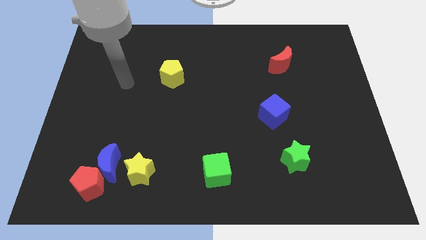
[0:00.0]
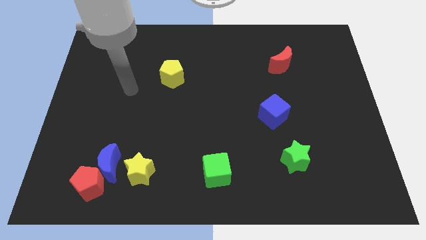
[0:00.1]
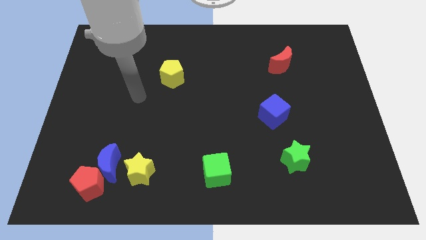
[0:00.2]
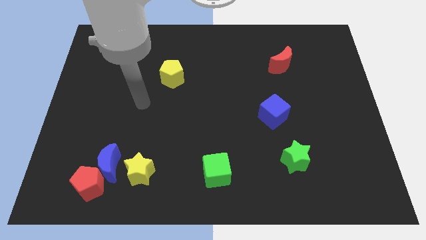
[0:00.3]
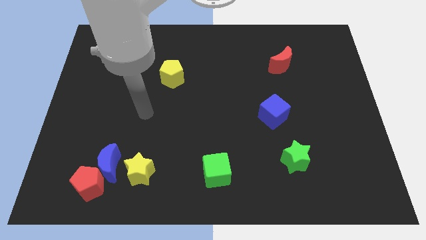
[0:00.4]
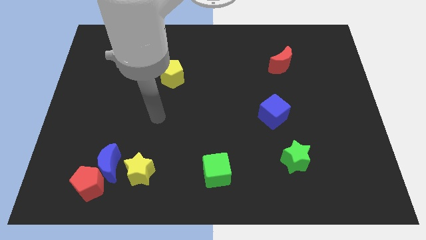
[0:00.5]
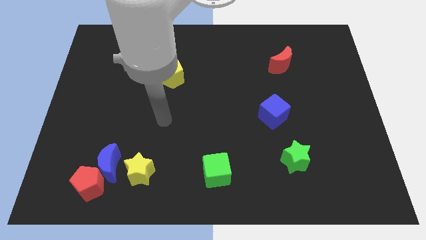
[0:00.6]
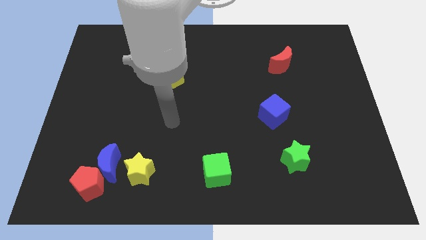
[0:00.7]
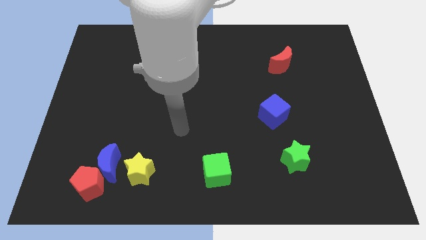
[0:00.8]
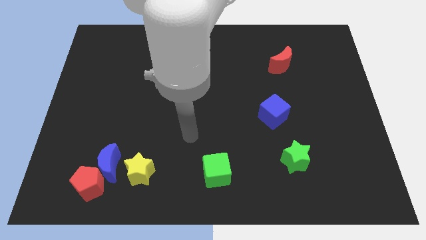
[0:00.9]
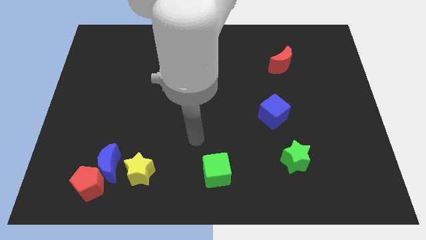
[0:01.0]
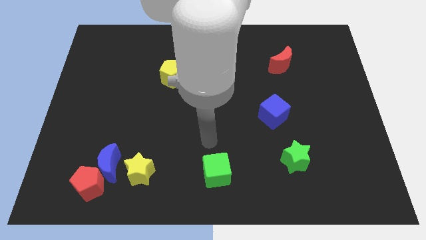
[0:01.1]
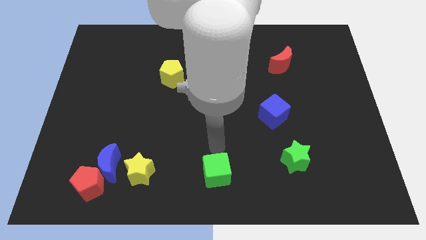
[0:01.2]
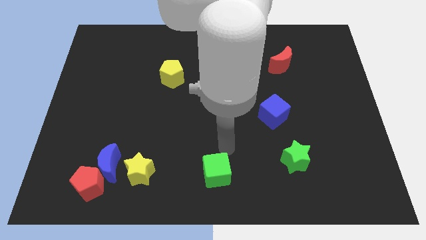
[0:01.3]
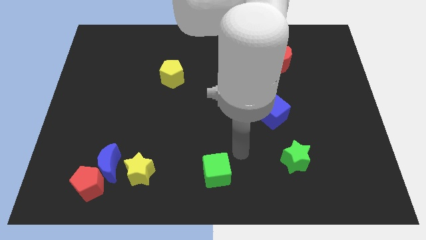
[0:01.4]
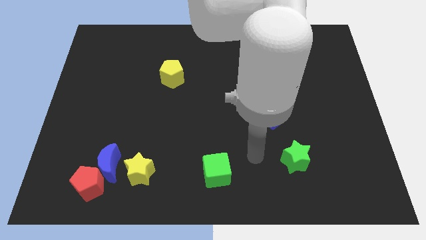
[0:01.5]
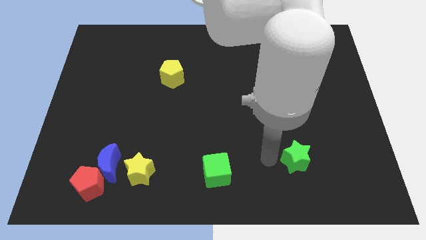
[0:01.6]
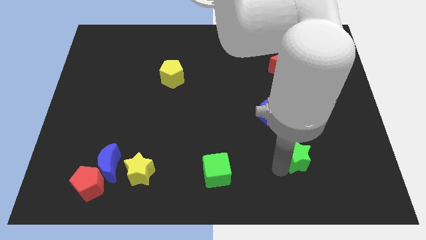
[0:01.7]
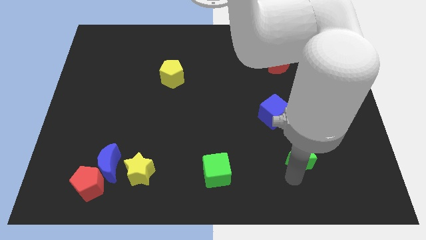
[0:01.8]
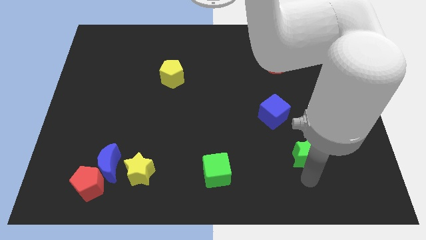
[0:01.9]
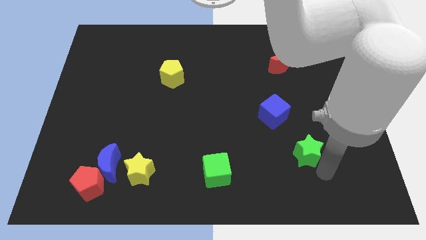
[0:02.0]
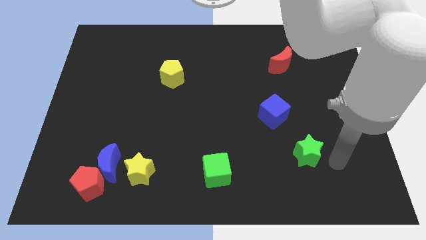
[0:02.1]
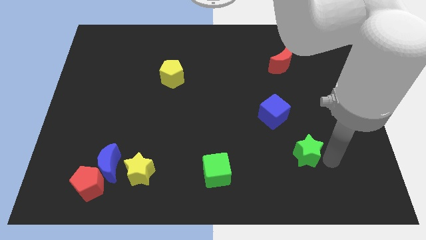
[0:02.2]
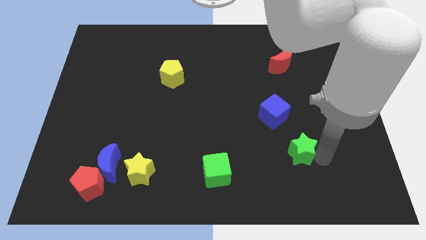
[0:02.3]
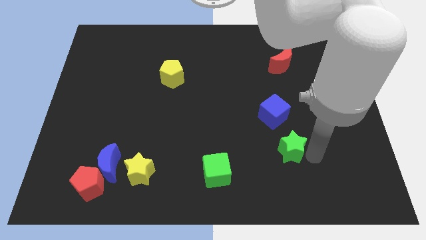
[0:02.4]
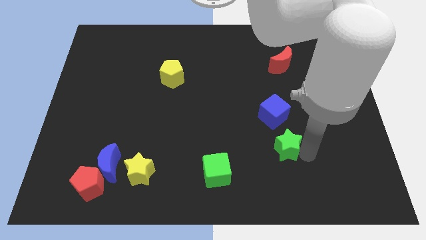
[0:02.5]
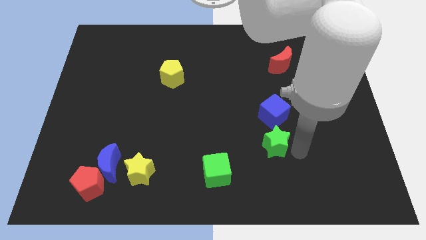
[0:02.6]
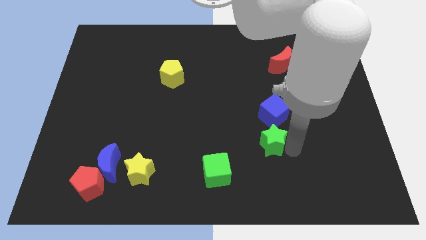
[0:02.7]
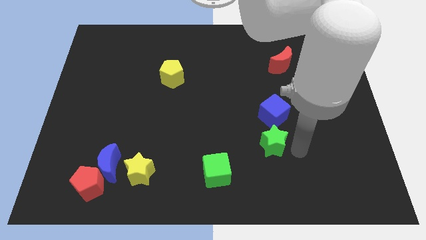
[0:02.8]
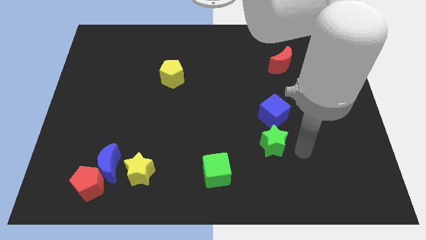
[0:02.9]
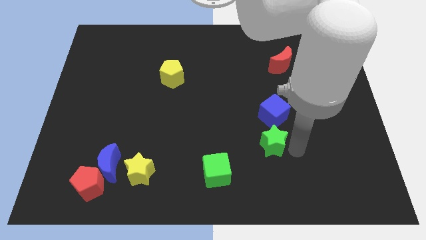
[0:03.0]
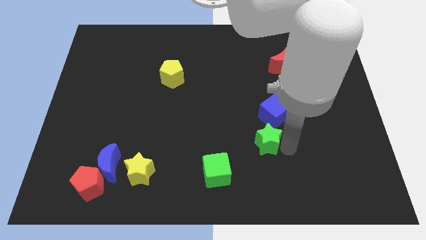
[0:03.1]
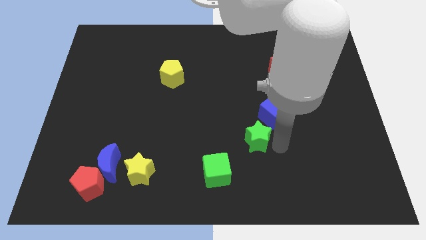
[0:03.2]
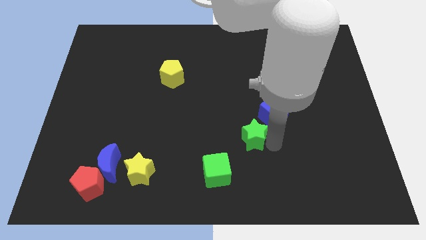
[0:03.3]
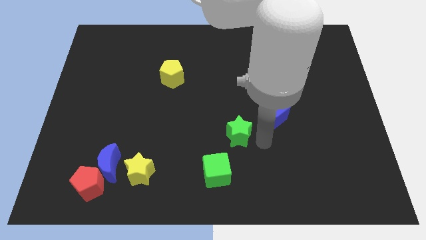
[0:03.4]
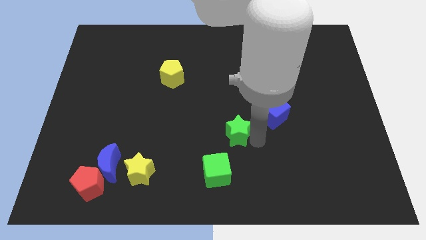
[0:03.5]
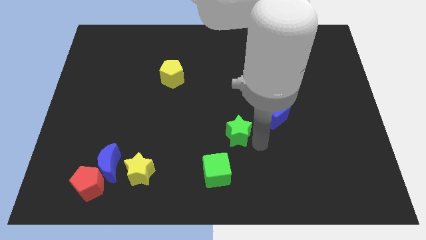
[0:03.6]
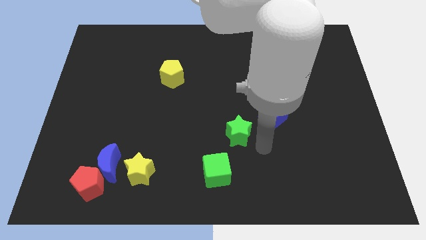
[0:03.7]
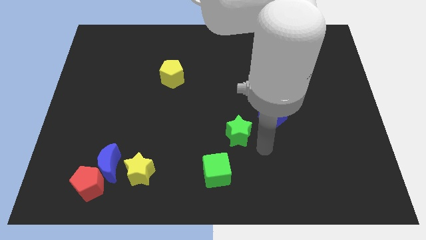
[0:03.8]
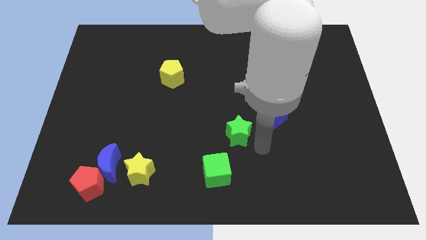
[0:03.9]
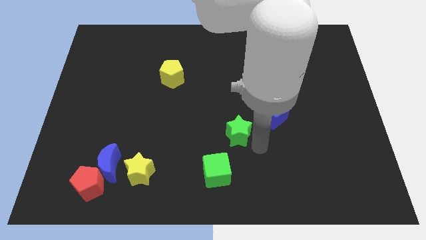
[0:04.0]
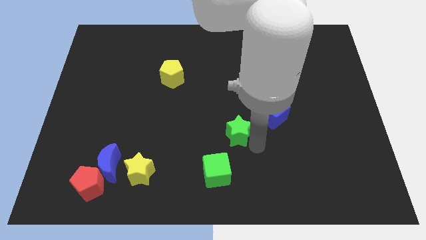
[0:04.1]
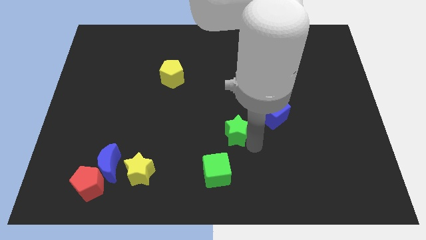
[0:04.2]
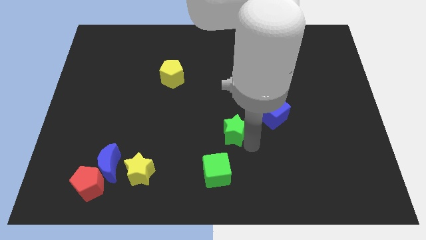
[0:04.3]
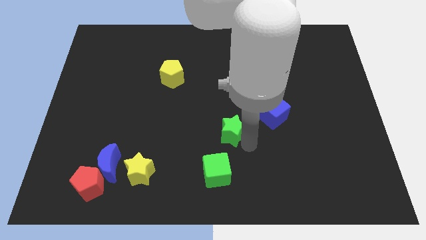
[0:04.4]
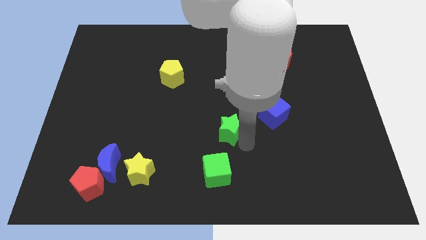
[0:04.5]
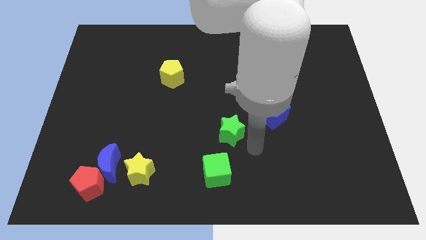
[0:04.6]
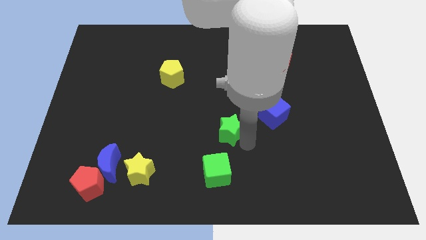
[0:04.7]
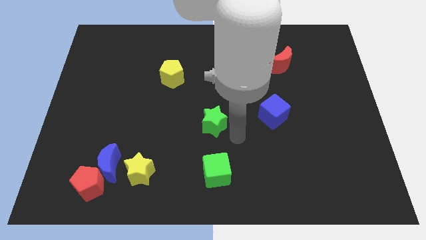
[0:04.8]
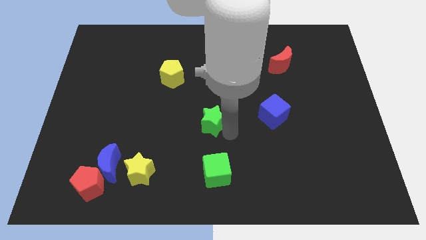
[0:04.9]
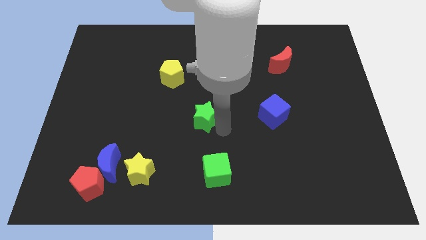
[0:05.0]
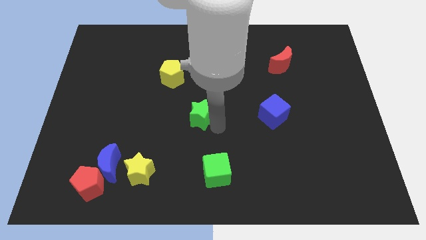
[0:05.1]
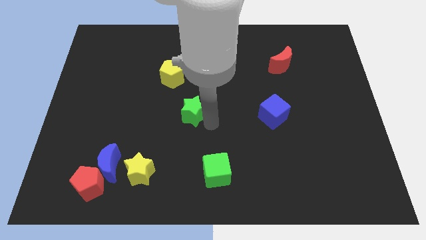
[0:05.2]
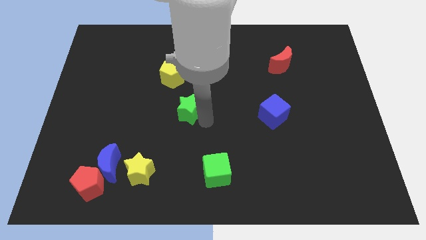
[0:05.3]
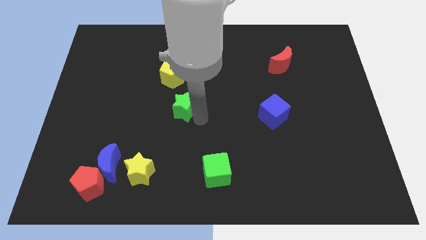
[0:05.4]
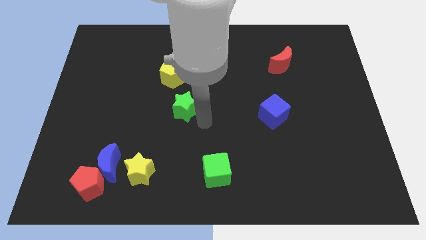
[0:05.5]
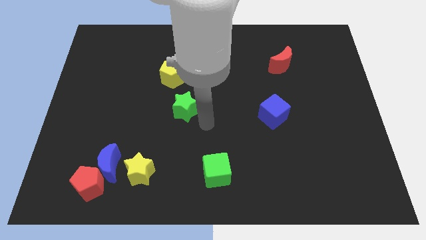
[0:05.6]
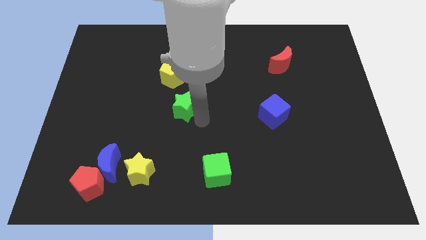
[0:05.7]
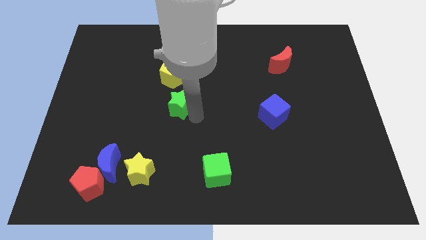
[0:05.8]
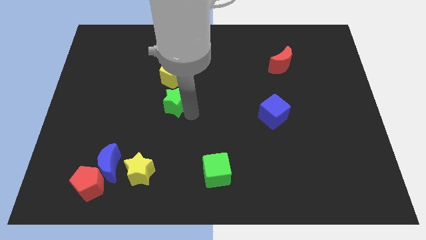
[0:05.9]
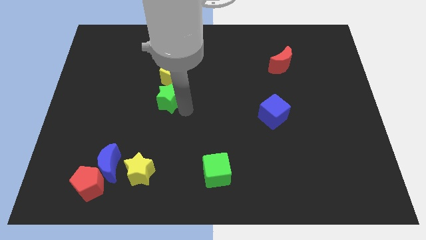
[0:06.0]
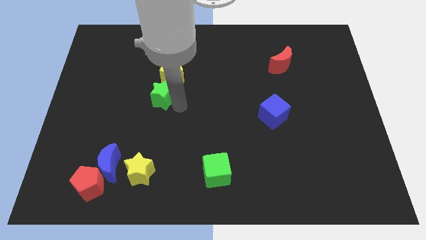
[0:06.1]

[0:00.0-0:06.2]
move the green star diagonally down and to the left of the yellow pentagon

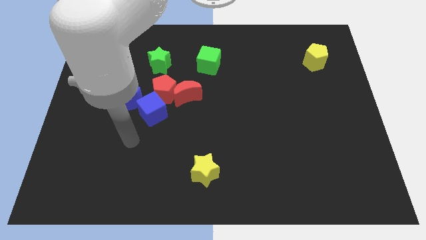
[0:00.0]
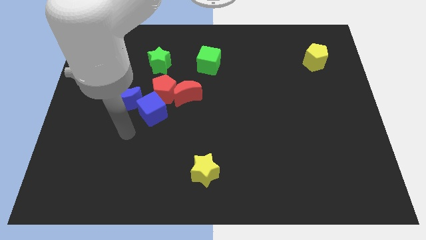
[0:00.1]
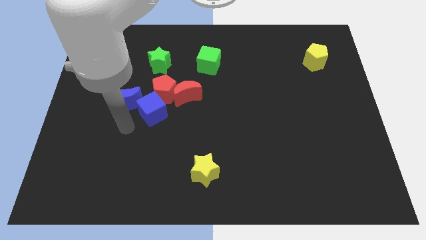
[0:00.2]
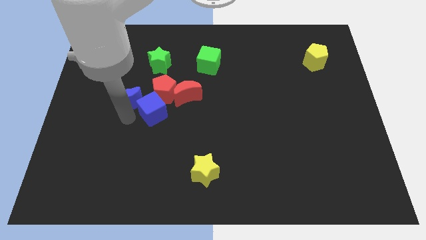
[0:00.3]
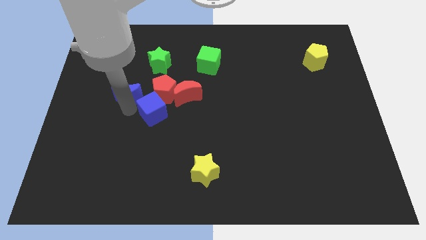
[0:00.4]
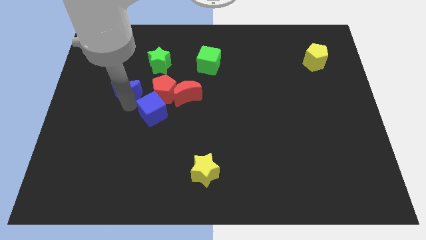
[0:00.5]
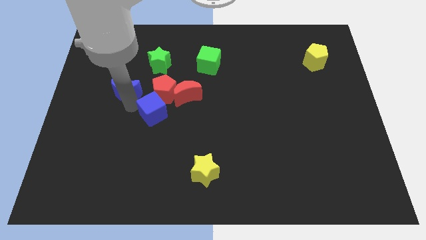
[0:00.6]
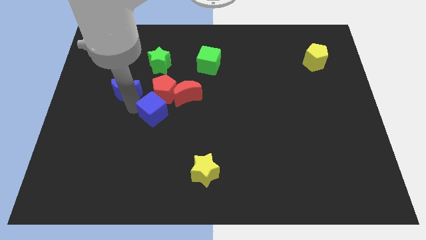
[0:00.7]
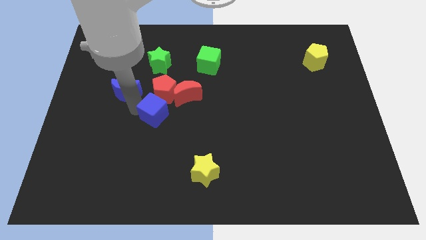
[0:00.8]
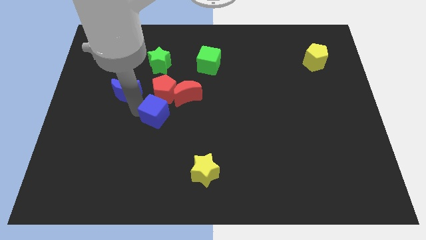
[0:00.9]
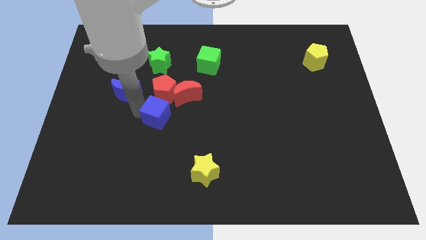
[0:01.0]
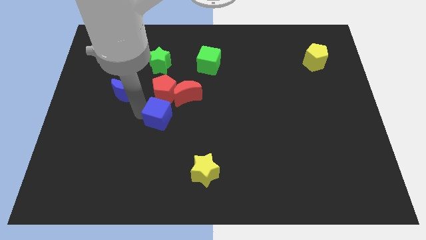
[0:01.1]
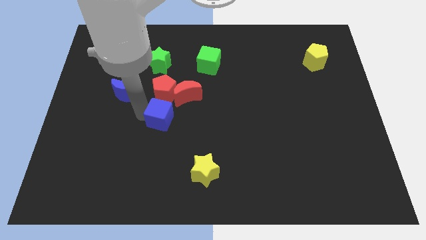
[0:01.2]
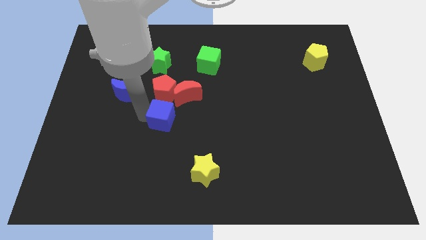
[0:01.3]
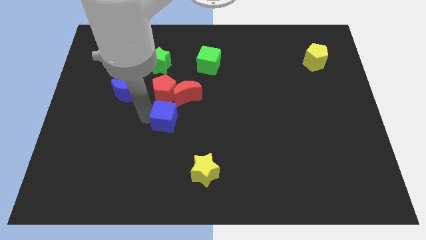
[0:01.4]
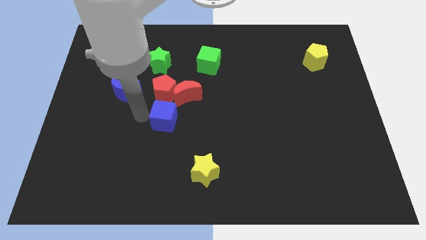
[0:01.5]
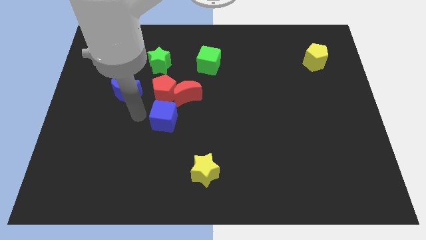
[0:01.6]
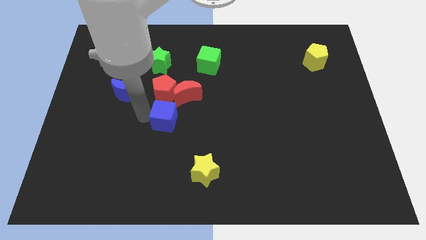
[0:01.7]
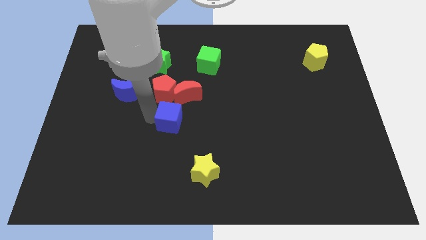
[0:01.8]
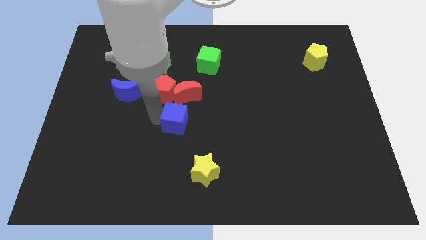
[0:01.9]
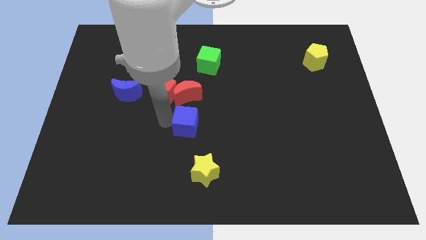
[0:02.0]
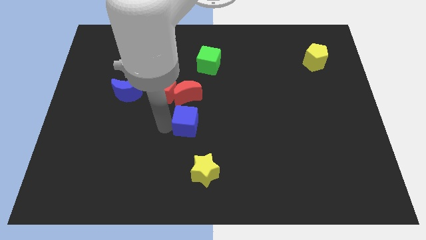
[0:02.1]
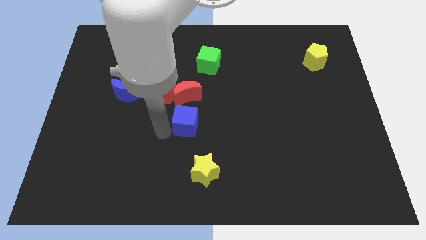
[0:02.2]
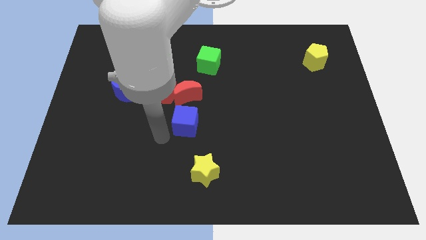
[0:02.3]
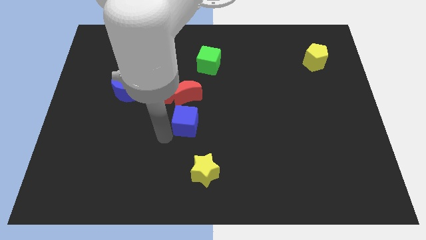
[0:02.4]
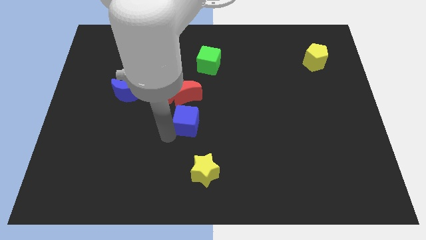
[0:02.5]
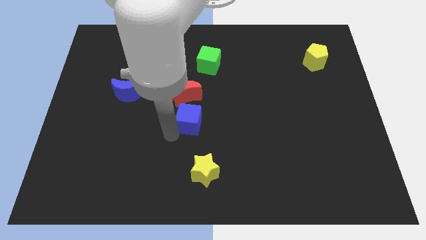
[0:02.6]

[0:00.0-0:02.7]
slide the blue cube diagonally down and to the right of the red moon
